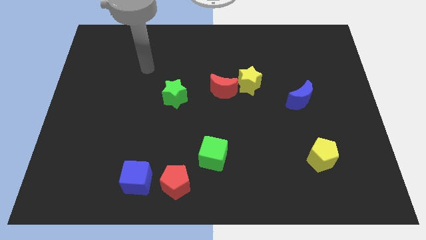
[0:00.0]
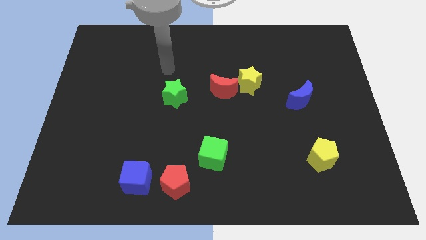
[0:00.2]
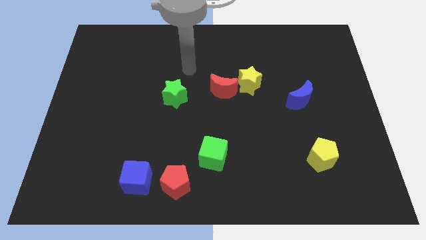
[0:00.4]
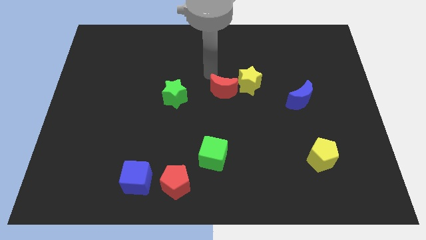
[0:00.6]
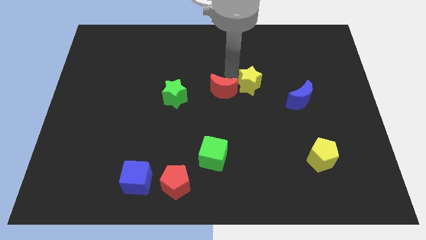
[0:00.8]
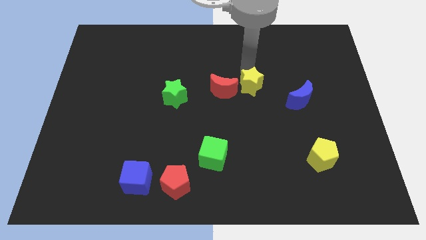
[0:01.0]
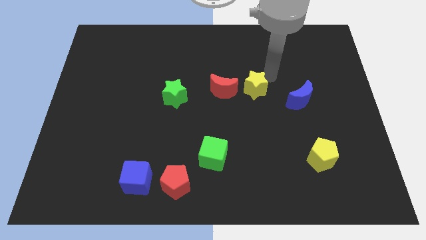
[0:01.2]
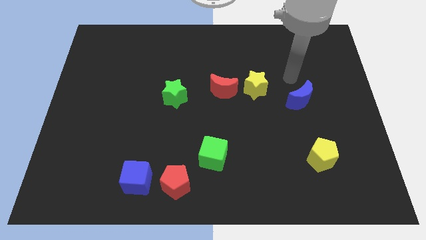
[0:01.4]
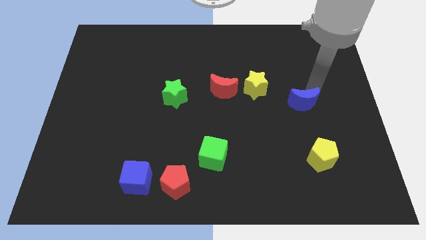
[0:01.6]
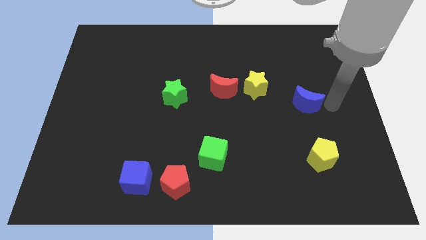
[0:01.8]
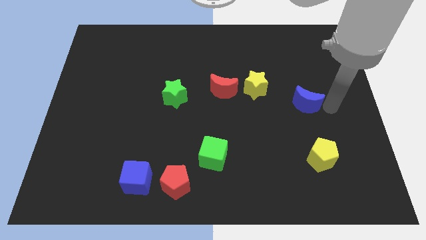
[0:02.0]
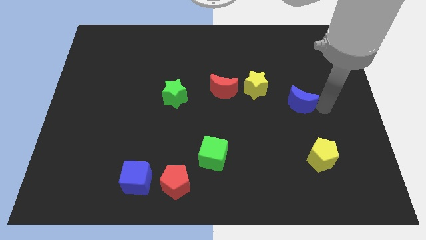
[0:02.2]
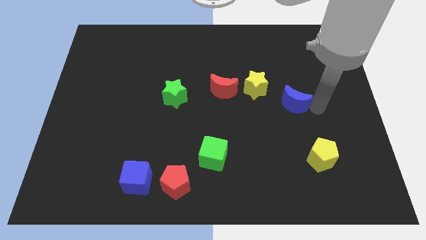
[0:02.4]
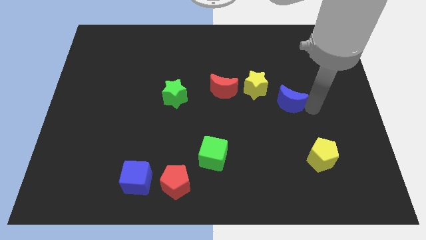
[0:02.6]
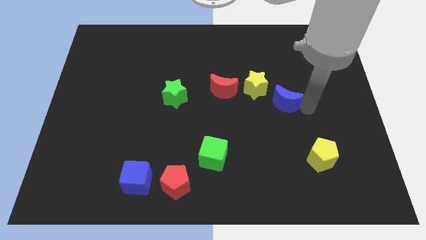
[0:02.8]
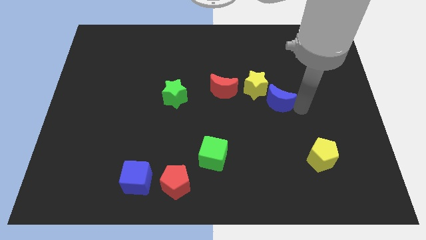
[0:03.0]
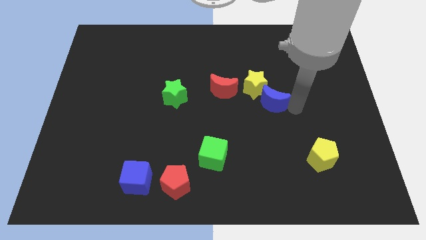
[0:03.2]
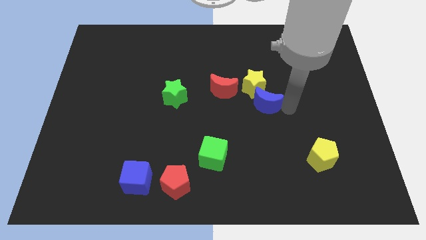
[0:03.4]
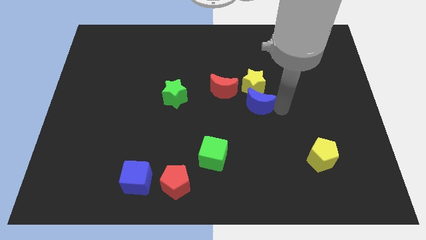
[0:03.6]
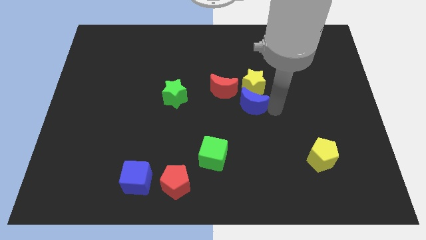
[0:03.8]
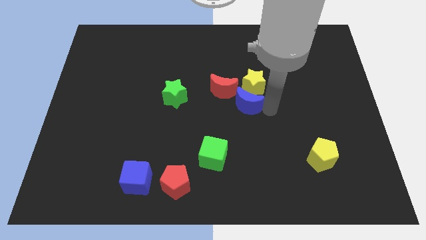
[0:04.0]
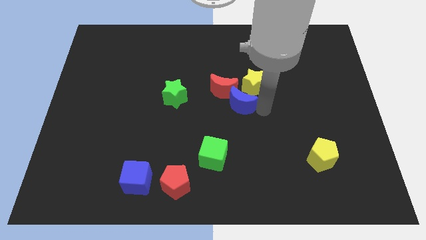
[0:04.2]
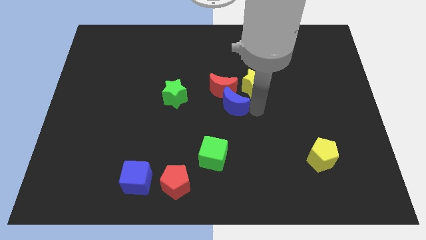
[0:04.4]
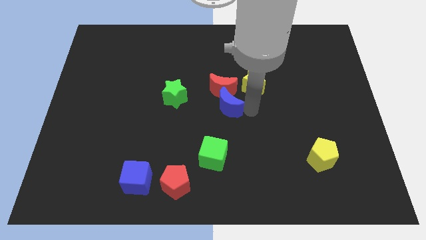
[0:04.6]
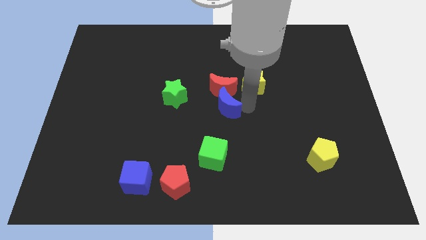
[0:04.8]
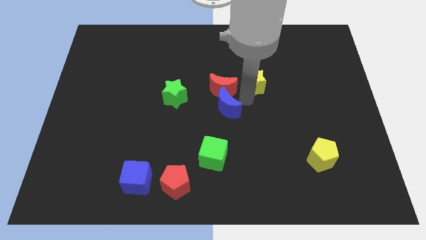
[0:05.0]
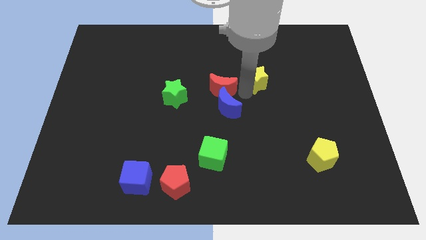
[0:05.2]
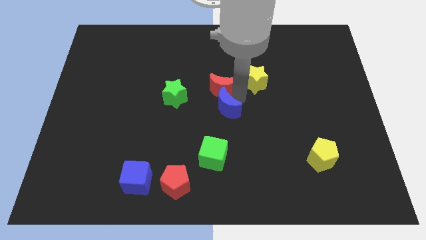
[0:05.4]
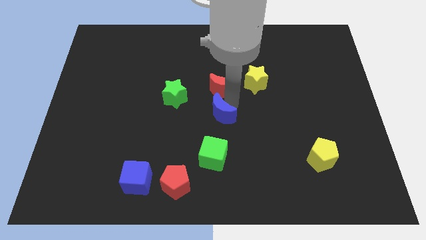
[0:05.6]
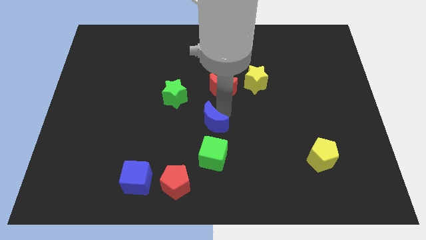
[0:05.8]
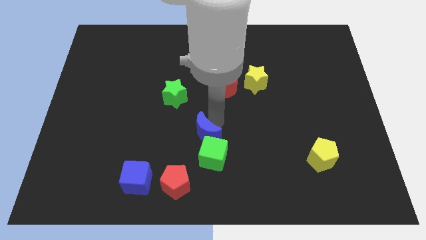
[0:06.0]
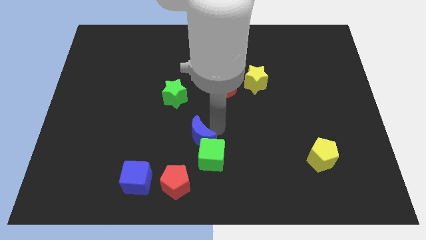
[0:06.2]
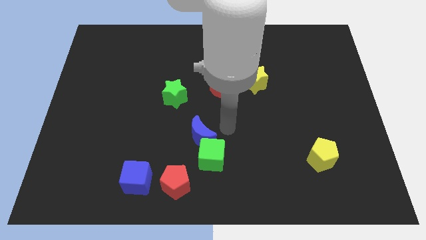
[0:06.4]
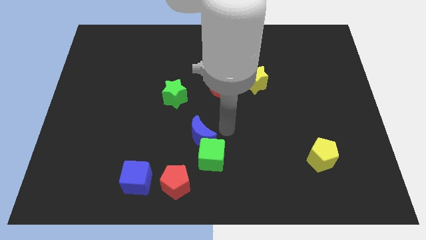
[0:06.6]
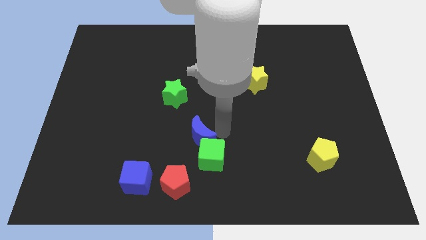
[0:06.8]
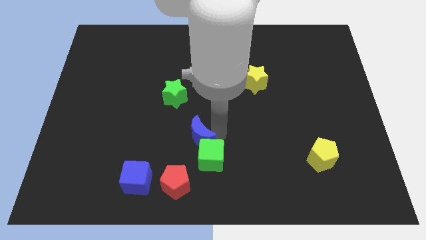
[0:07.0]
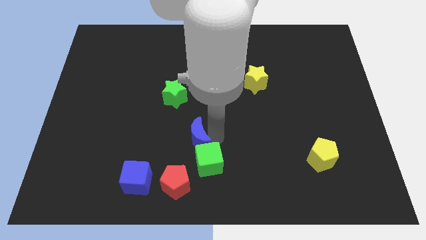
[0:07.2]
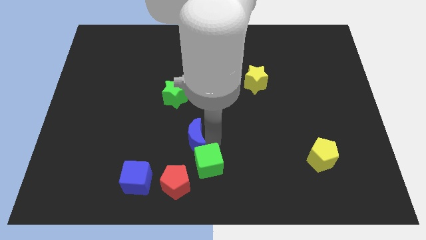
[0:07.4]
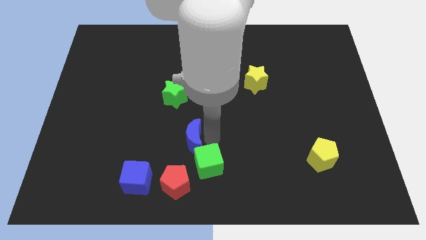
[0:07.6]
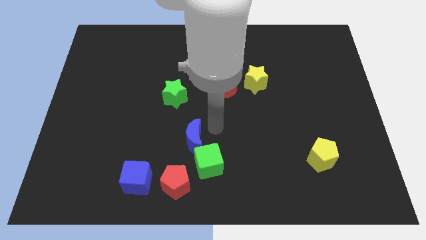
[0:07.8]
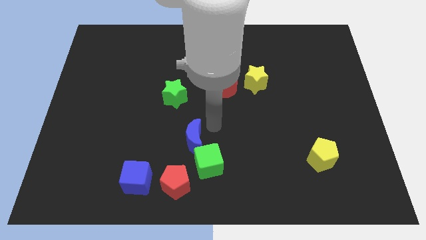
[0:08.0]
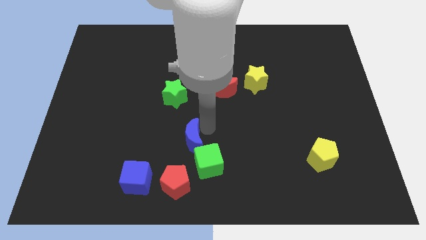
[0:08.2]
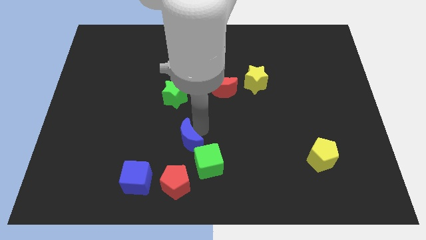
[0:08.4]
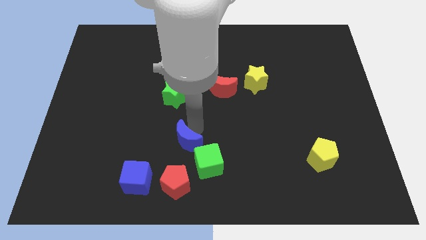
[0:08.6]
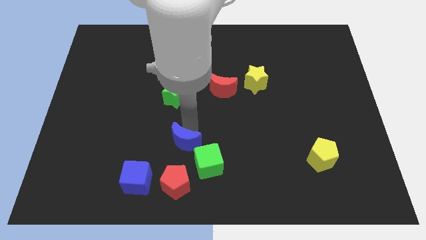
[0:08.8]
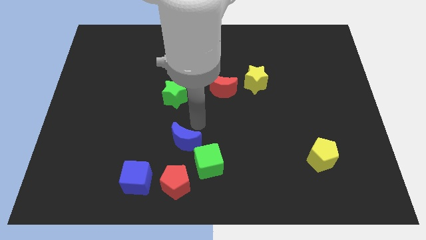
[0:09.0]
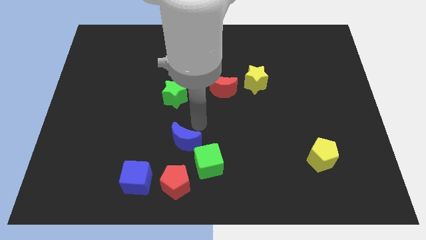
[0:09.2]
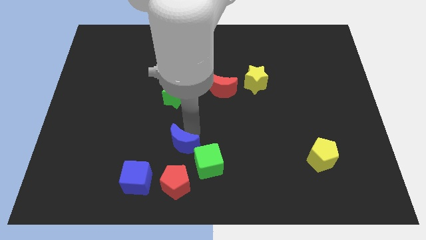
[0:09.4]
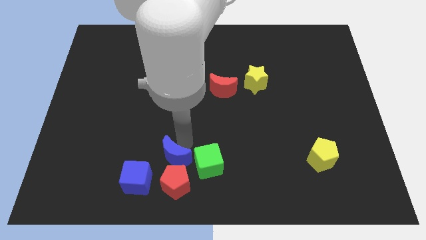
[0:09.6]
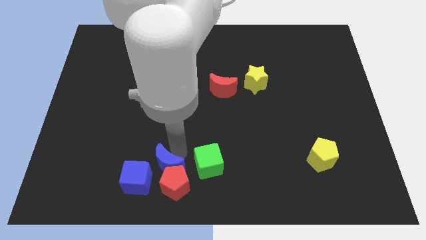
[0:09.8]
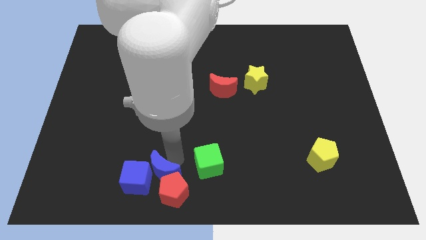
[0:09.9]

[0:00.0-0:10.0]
push the blue moon towards the blue cube

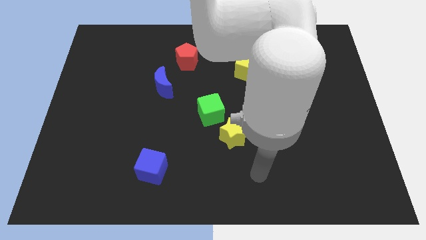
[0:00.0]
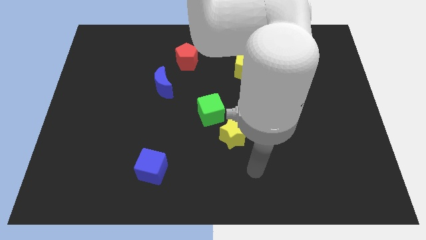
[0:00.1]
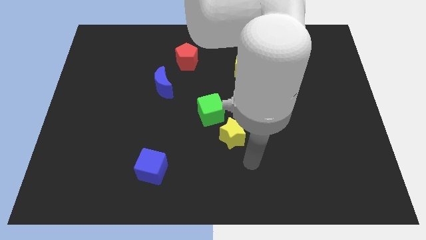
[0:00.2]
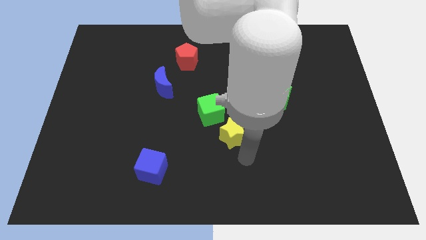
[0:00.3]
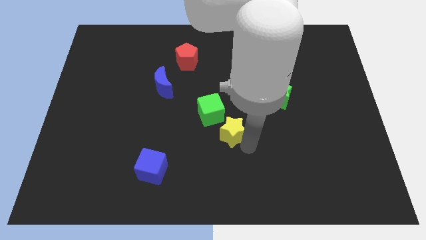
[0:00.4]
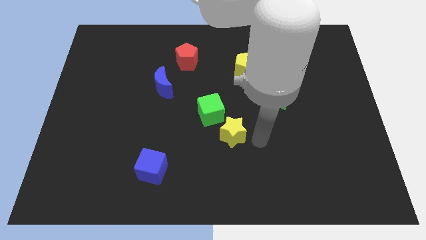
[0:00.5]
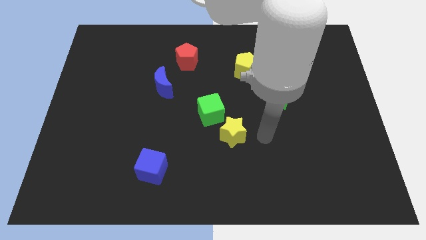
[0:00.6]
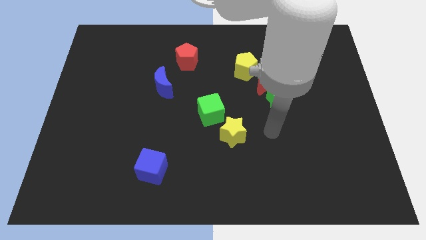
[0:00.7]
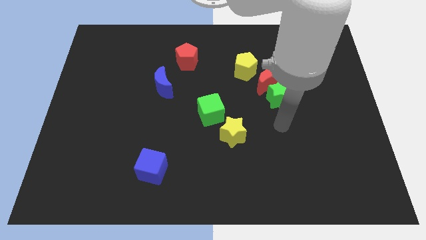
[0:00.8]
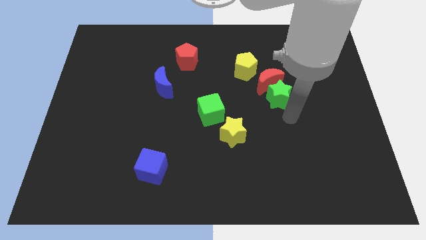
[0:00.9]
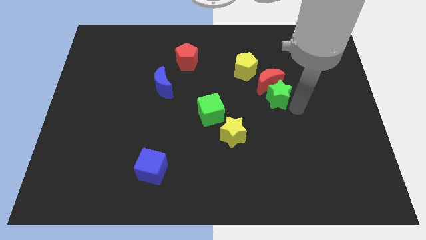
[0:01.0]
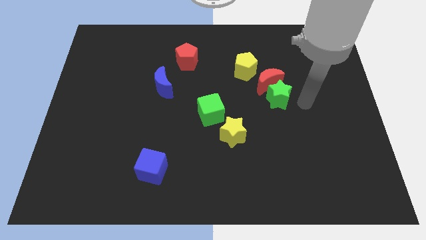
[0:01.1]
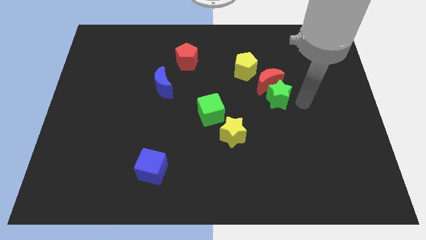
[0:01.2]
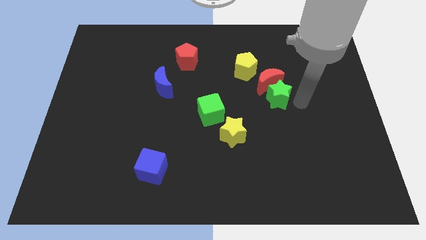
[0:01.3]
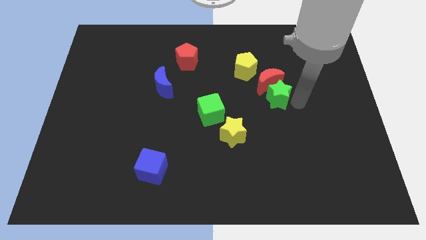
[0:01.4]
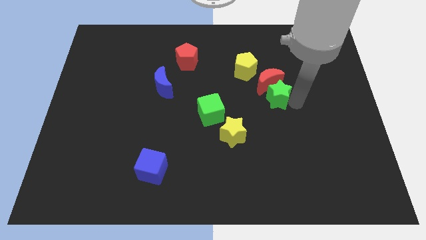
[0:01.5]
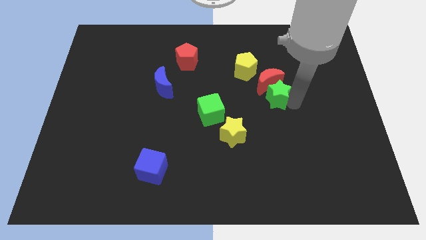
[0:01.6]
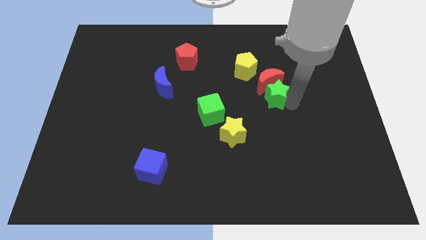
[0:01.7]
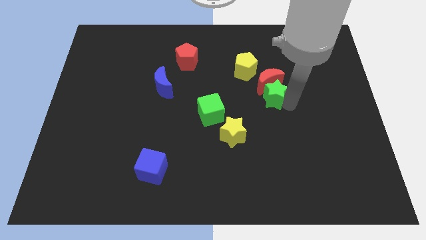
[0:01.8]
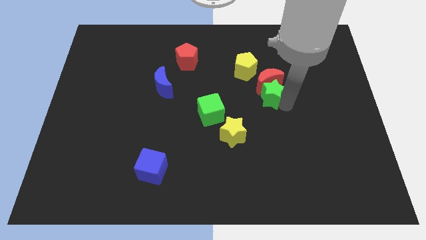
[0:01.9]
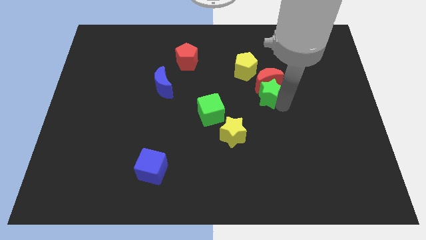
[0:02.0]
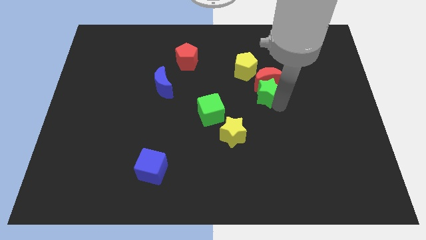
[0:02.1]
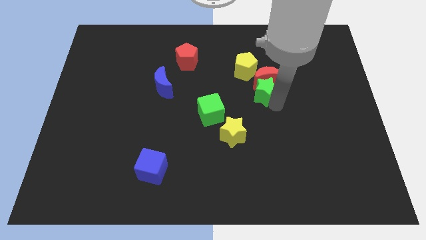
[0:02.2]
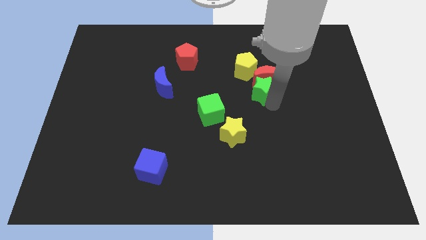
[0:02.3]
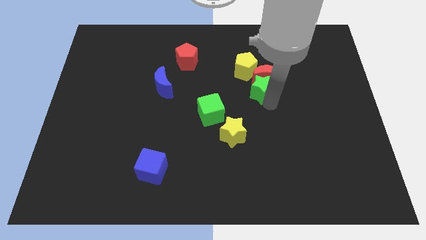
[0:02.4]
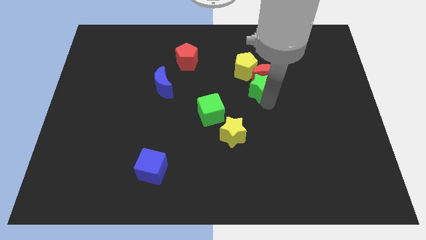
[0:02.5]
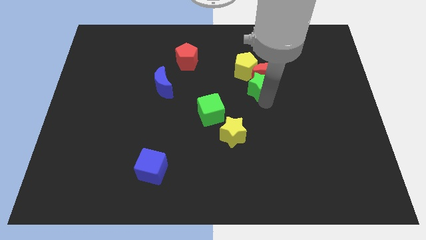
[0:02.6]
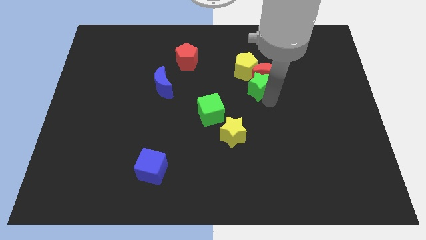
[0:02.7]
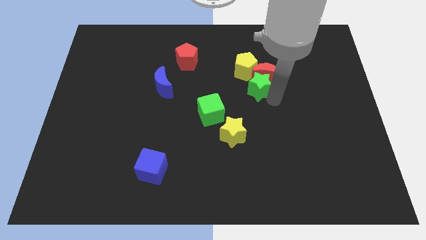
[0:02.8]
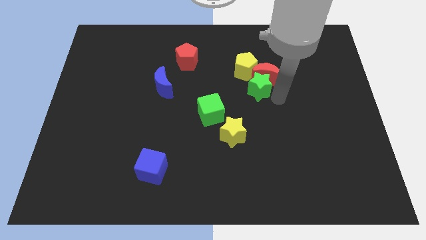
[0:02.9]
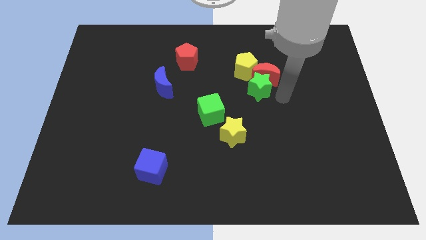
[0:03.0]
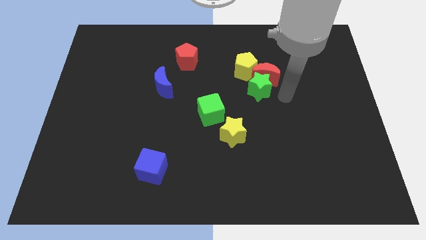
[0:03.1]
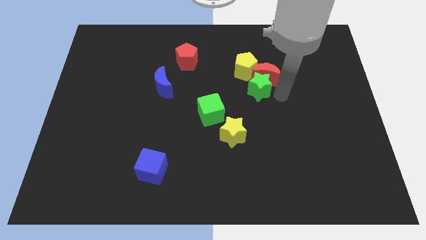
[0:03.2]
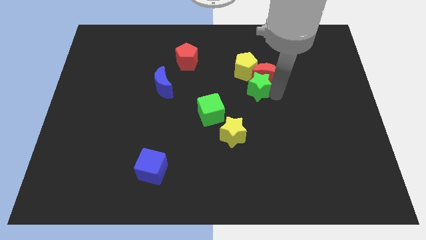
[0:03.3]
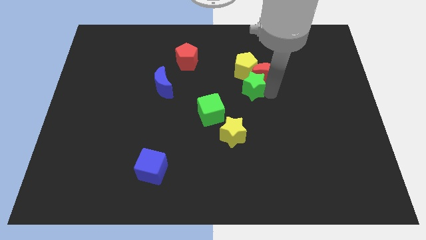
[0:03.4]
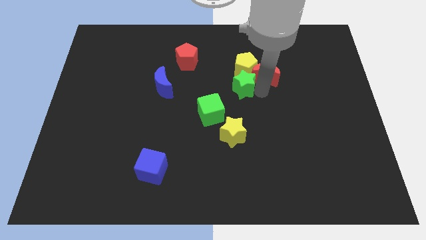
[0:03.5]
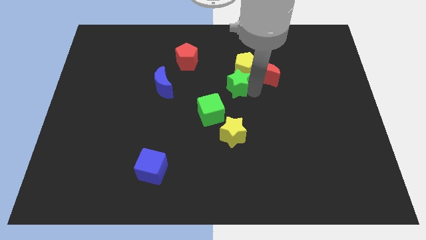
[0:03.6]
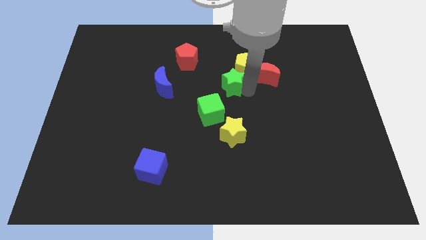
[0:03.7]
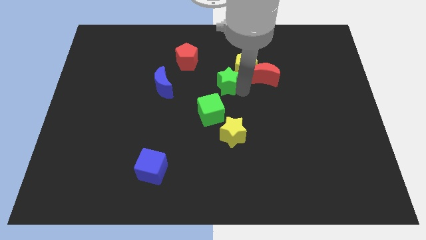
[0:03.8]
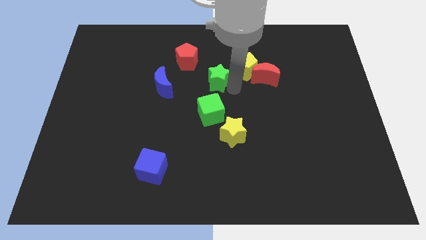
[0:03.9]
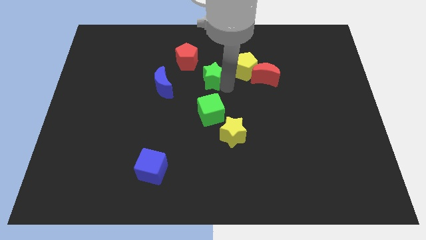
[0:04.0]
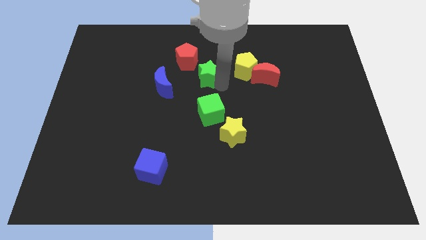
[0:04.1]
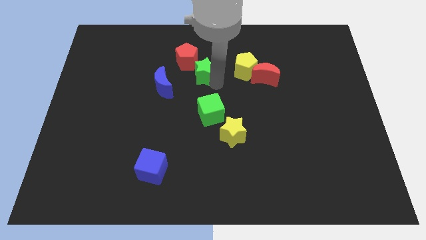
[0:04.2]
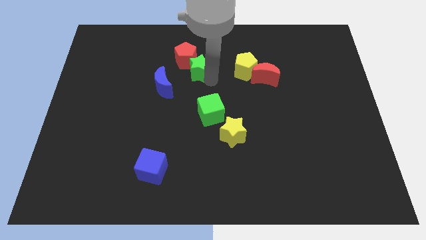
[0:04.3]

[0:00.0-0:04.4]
slide the green star next to the red pentagon
